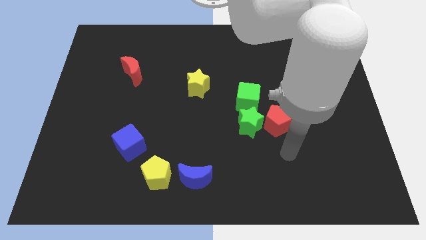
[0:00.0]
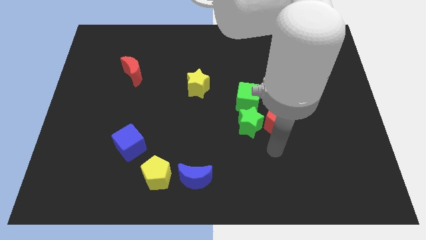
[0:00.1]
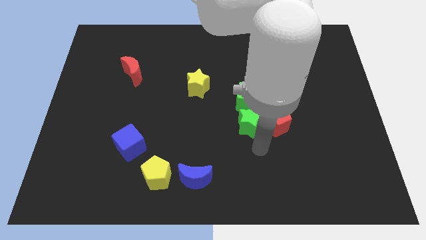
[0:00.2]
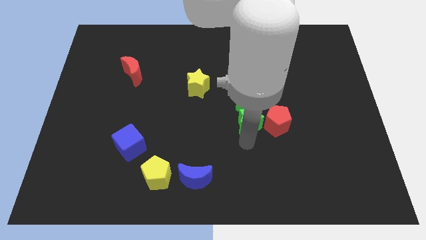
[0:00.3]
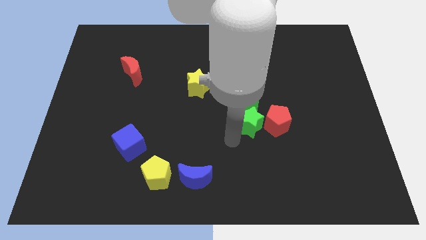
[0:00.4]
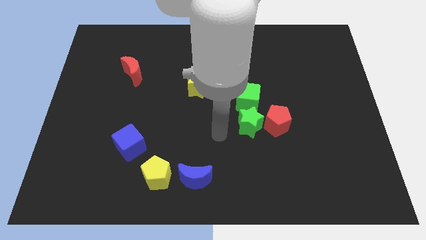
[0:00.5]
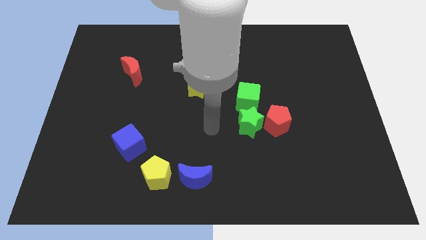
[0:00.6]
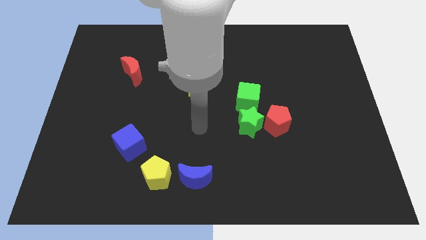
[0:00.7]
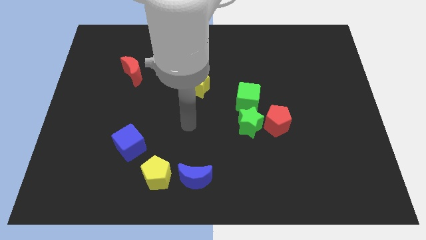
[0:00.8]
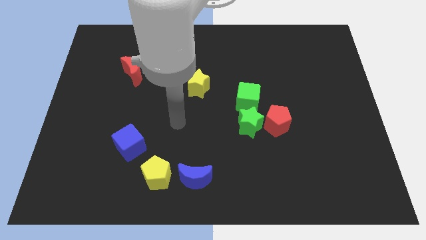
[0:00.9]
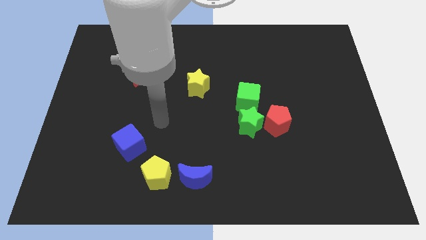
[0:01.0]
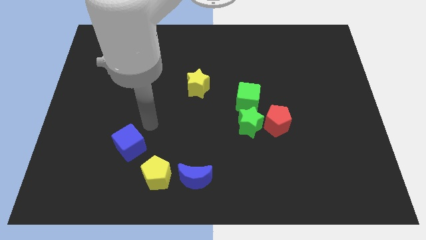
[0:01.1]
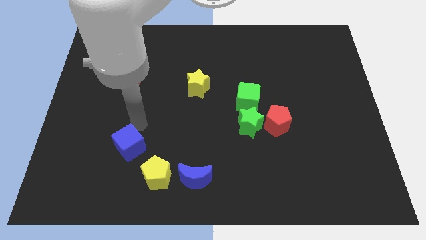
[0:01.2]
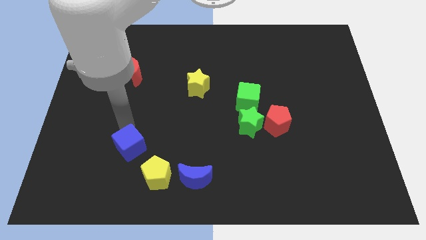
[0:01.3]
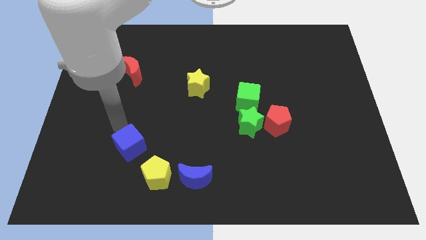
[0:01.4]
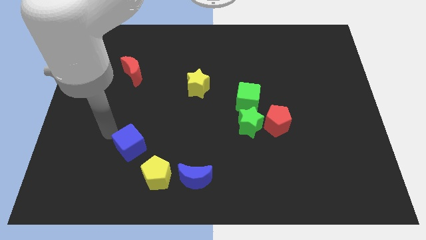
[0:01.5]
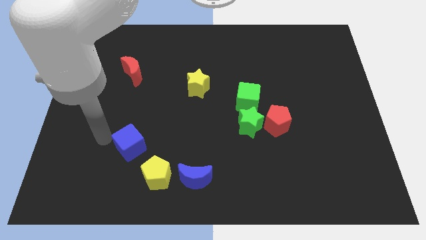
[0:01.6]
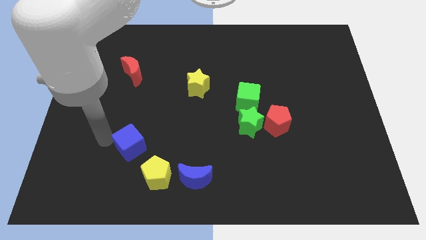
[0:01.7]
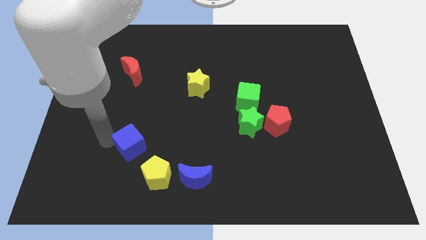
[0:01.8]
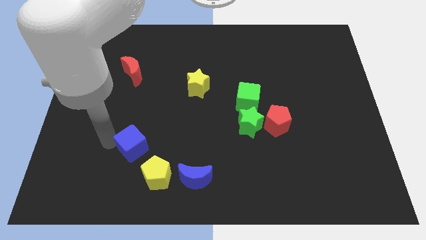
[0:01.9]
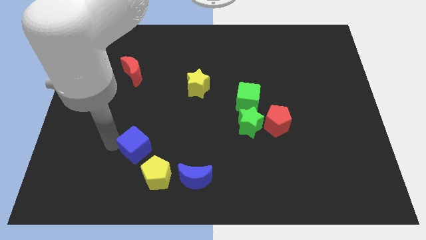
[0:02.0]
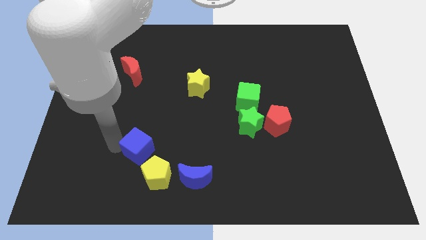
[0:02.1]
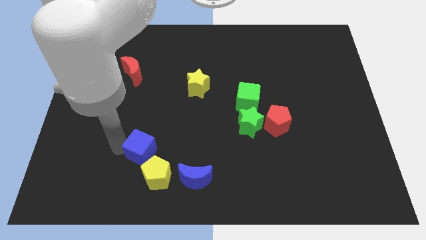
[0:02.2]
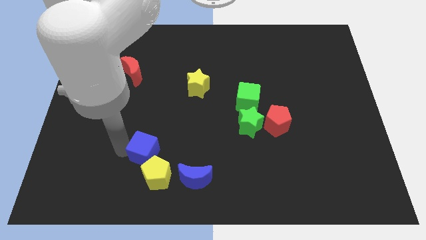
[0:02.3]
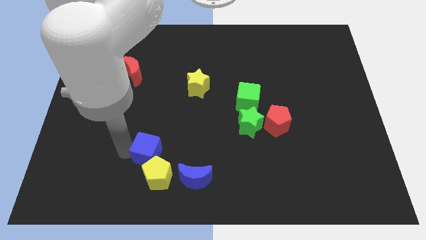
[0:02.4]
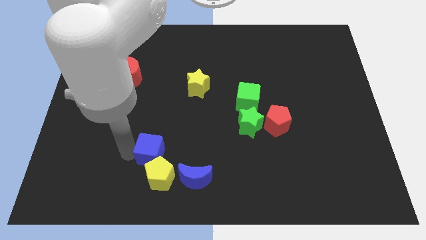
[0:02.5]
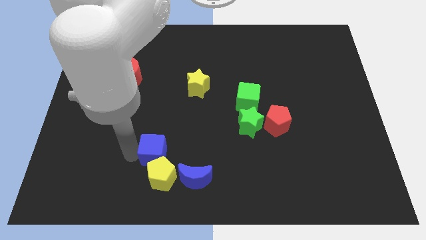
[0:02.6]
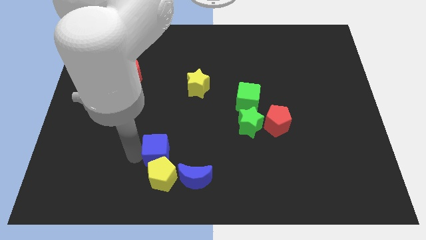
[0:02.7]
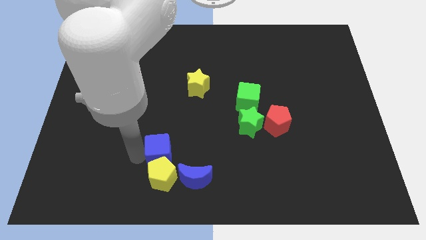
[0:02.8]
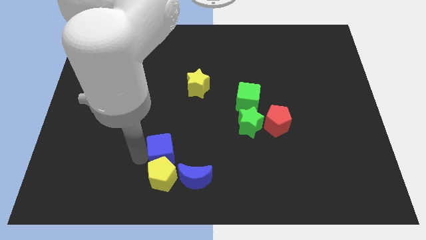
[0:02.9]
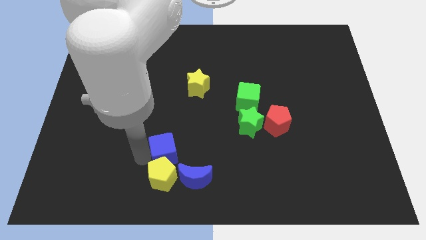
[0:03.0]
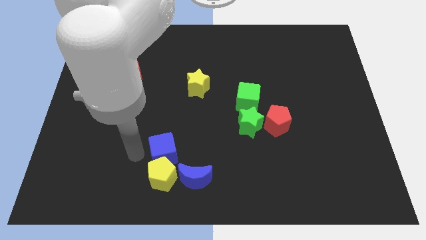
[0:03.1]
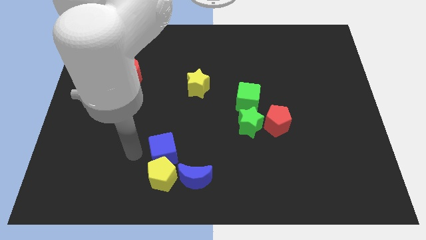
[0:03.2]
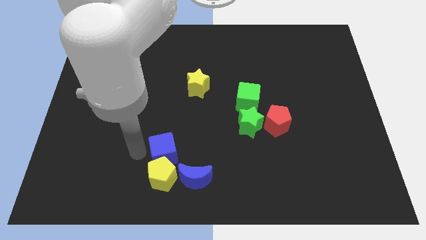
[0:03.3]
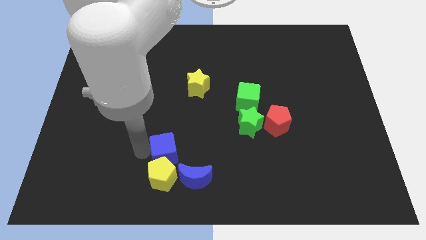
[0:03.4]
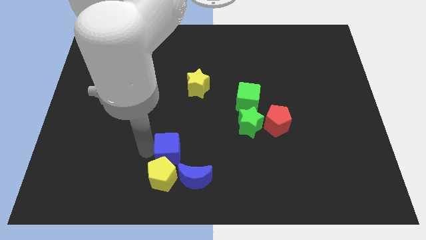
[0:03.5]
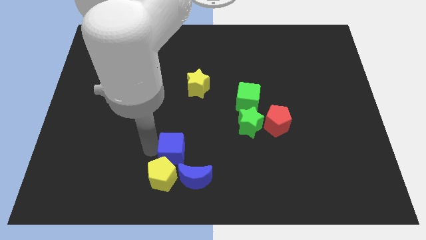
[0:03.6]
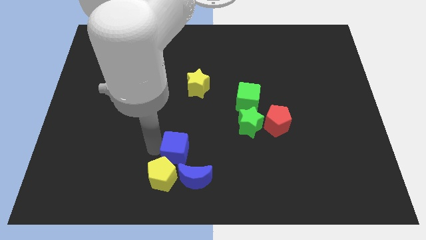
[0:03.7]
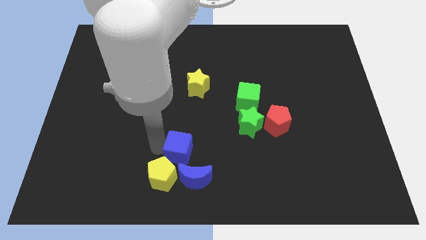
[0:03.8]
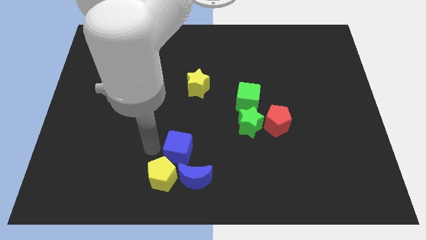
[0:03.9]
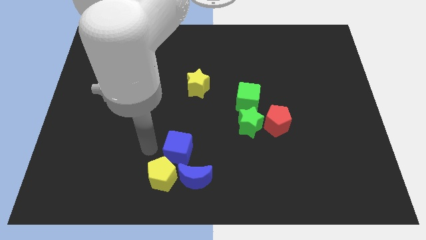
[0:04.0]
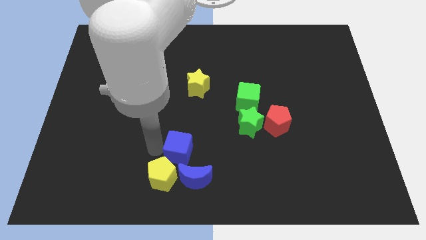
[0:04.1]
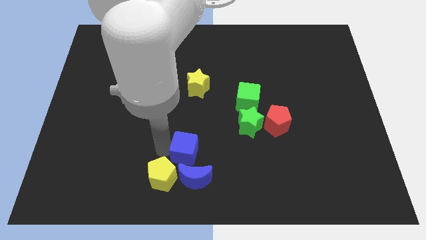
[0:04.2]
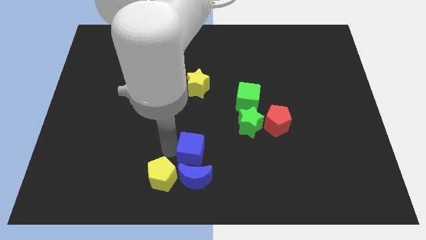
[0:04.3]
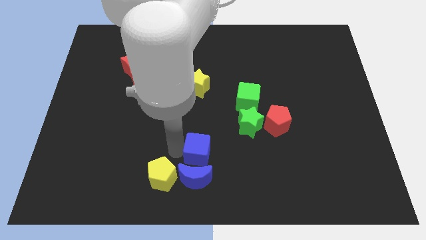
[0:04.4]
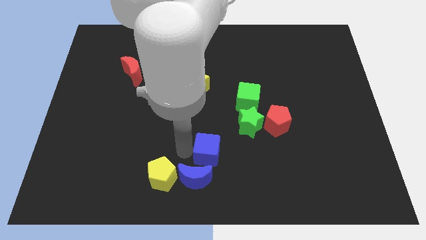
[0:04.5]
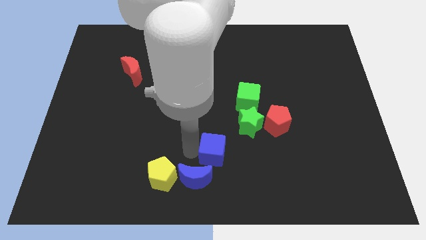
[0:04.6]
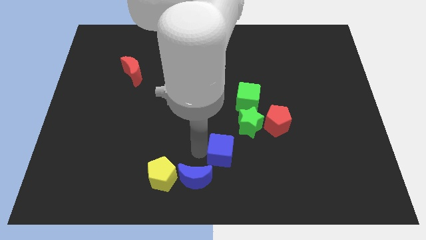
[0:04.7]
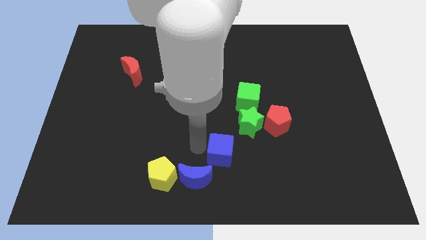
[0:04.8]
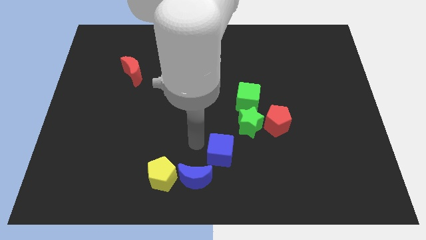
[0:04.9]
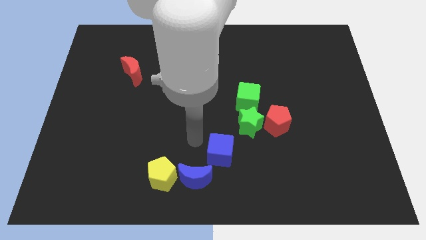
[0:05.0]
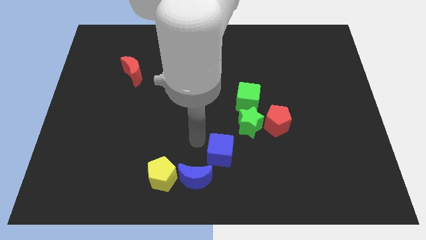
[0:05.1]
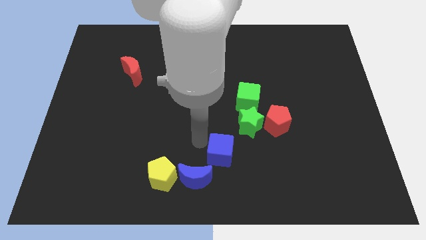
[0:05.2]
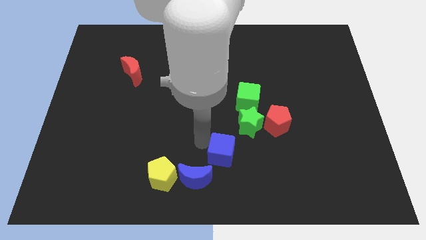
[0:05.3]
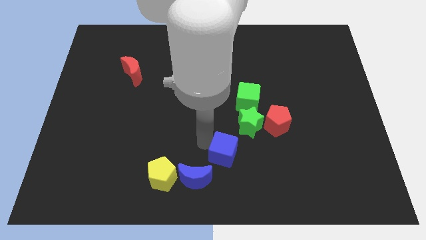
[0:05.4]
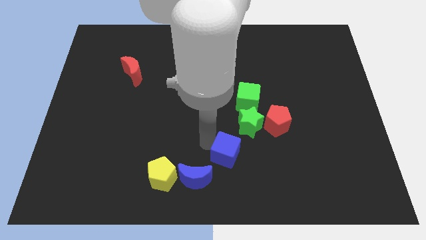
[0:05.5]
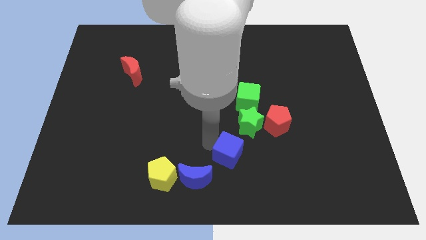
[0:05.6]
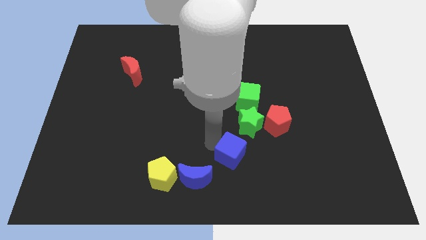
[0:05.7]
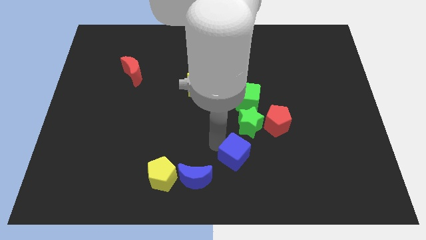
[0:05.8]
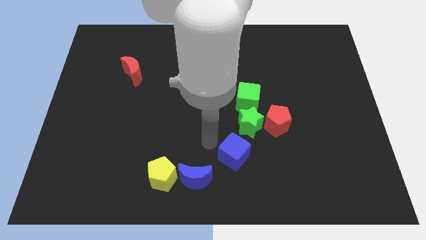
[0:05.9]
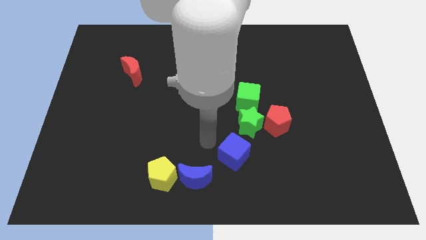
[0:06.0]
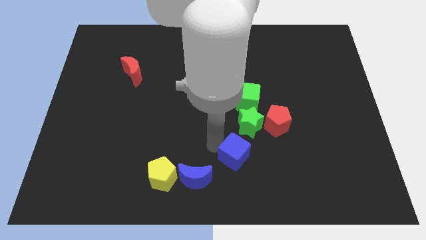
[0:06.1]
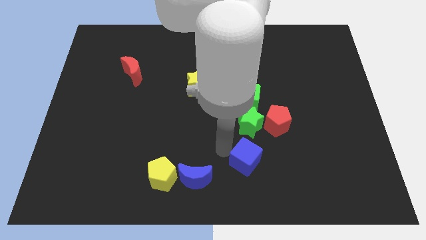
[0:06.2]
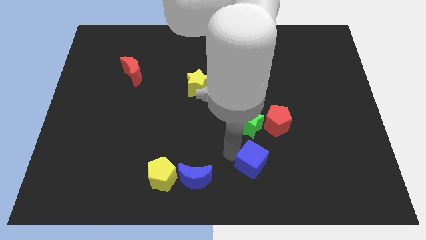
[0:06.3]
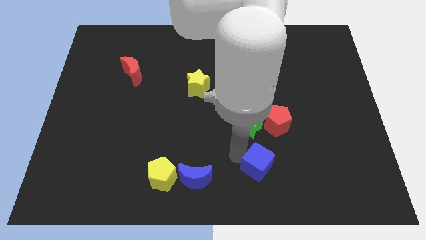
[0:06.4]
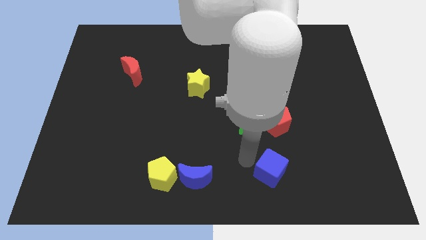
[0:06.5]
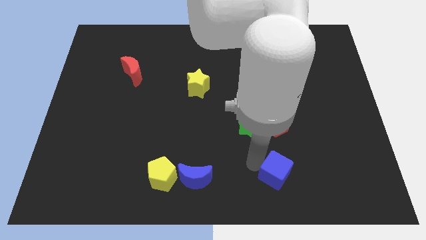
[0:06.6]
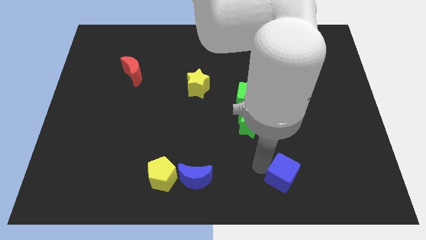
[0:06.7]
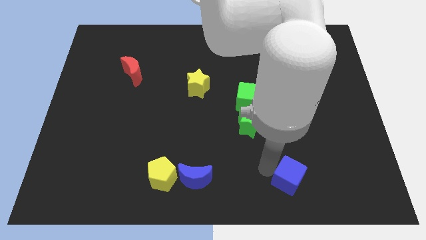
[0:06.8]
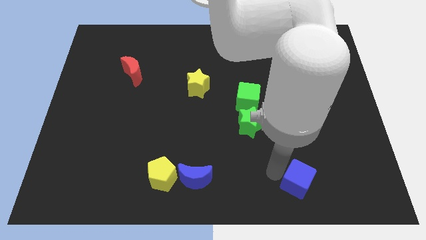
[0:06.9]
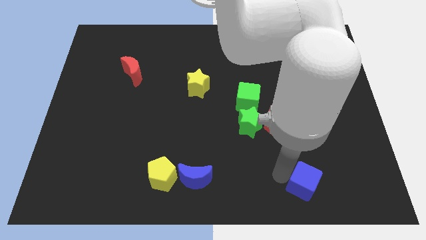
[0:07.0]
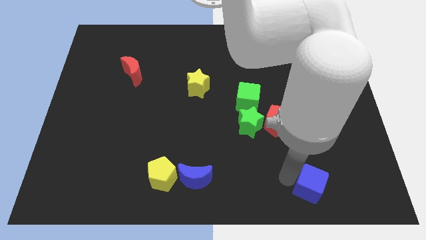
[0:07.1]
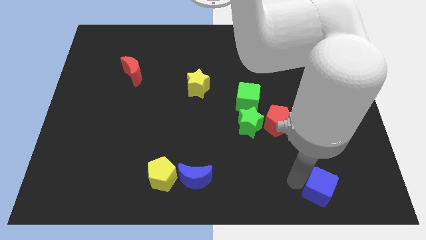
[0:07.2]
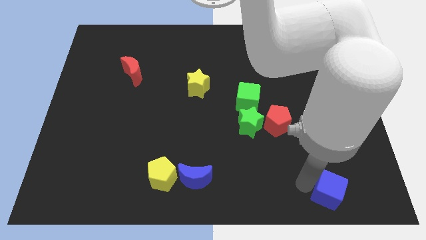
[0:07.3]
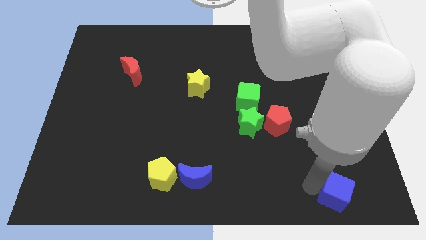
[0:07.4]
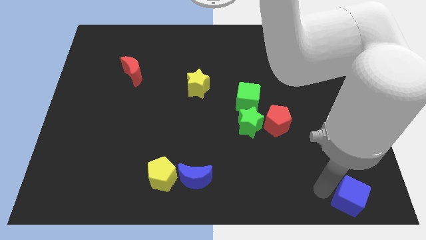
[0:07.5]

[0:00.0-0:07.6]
slide the blue cube to the bottom right of the board
